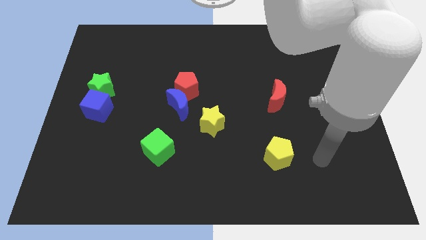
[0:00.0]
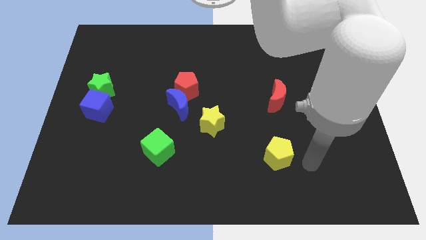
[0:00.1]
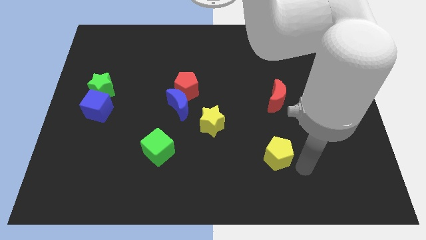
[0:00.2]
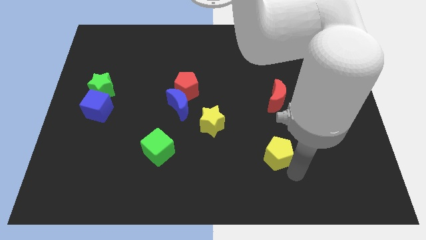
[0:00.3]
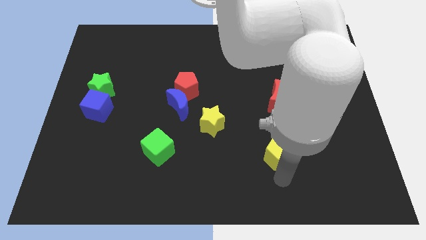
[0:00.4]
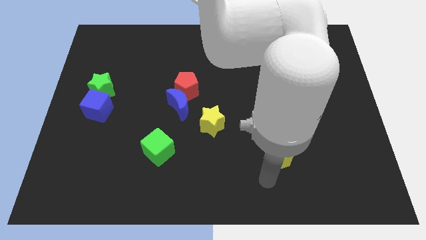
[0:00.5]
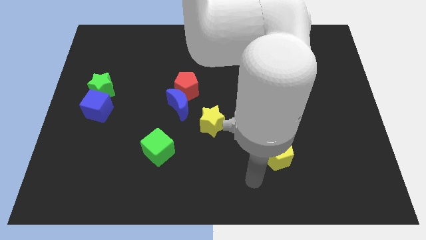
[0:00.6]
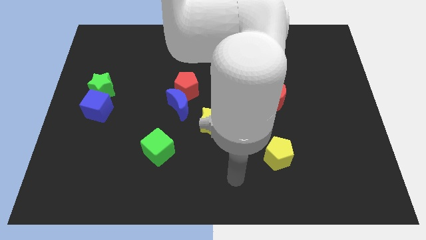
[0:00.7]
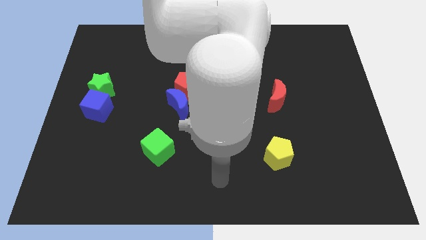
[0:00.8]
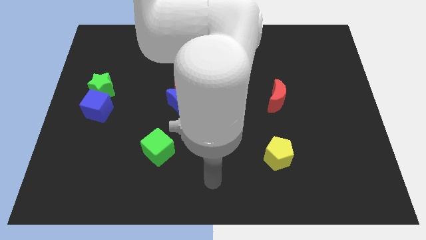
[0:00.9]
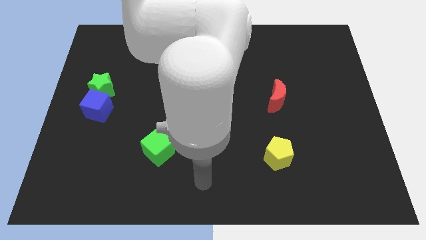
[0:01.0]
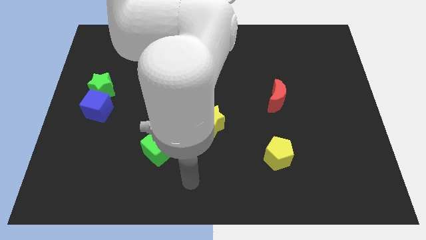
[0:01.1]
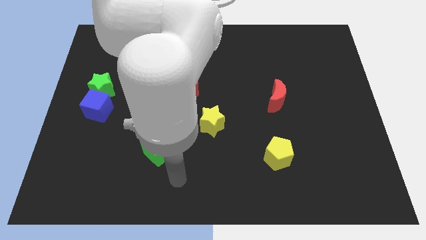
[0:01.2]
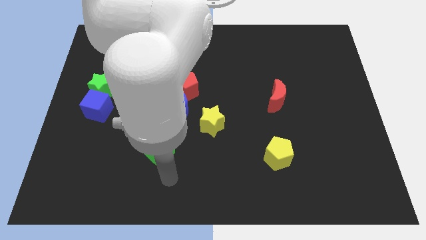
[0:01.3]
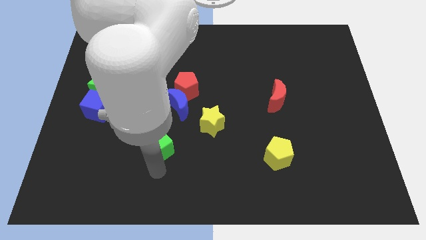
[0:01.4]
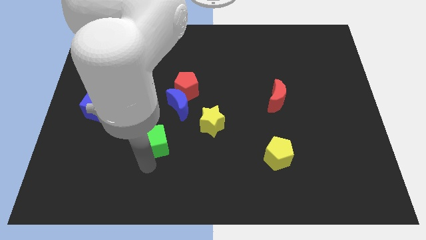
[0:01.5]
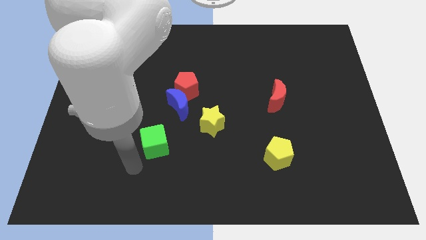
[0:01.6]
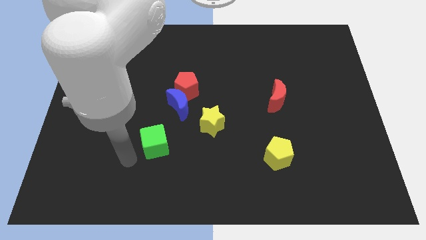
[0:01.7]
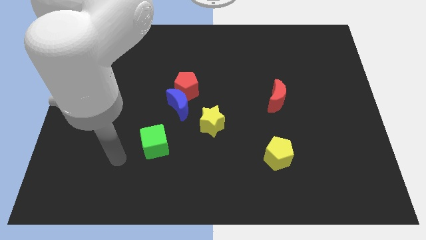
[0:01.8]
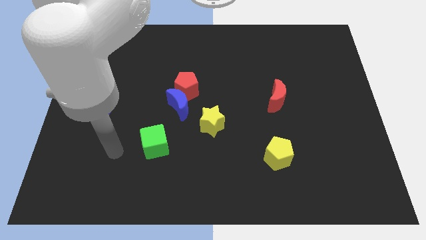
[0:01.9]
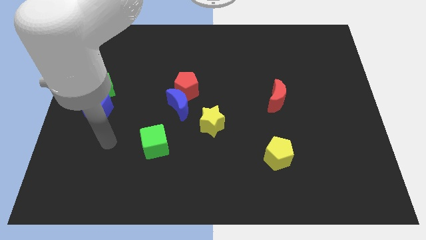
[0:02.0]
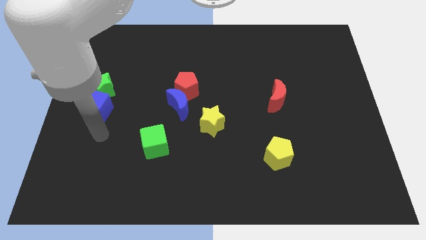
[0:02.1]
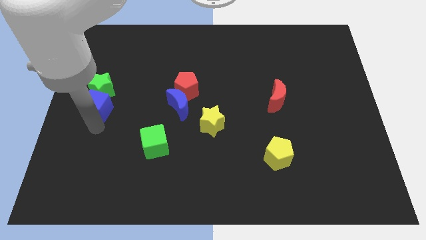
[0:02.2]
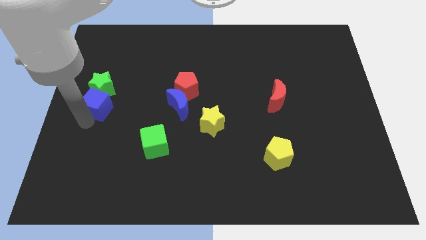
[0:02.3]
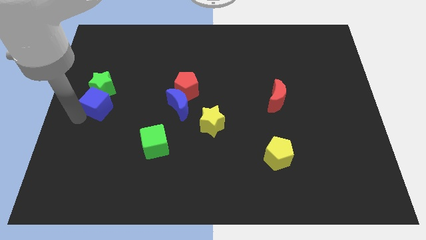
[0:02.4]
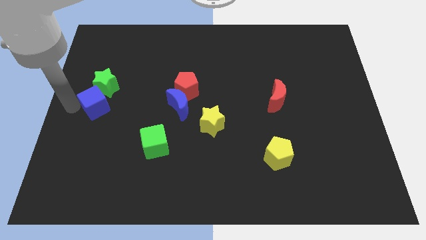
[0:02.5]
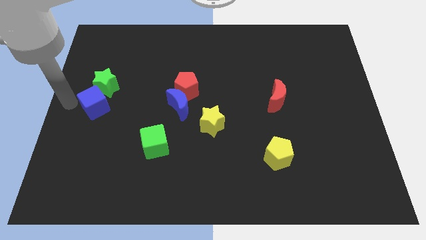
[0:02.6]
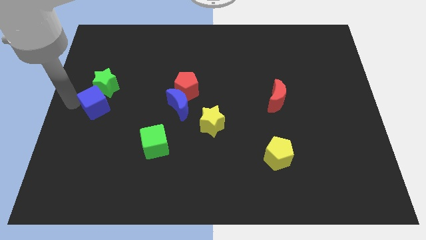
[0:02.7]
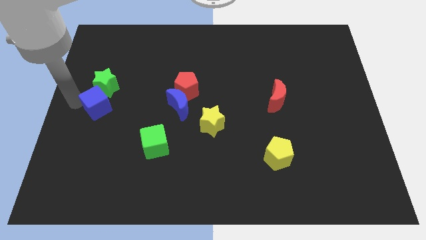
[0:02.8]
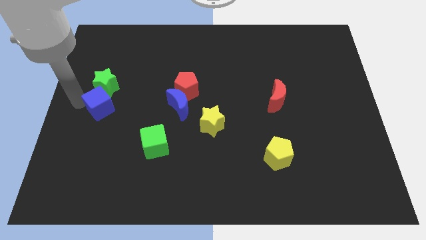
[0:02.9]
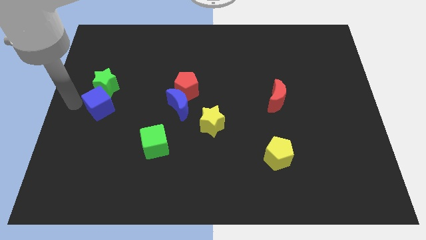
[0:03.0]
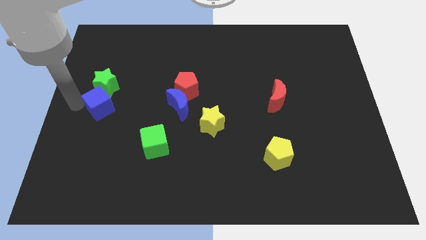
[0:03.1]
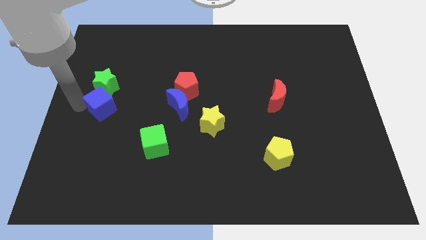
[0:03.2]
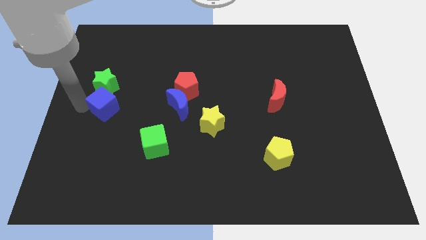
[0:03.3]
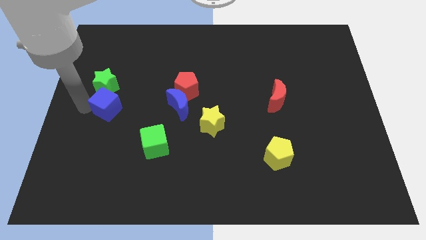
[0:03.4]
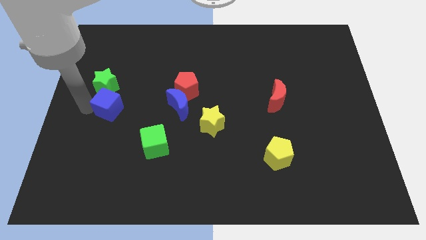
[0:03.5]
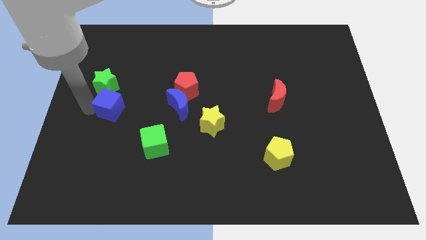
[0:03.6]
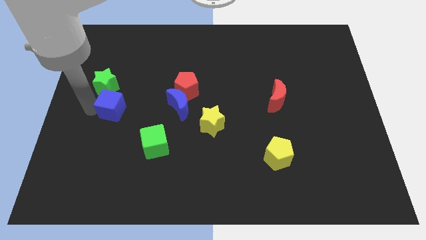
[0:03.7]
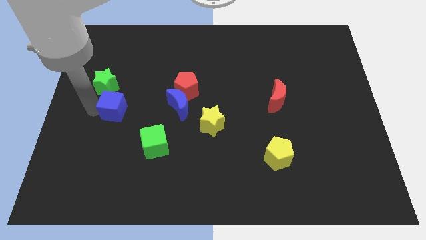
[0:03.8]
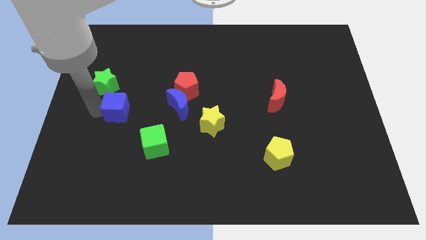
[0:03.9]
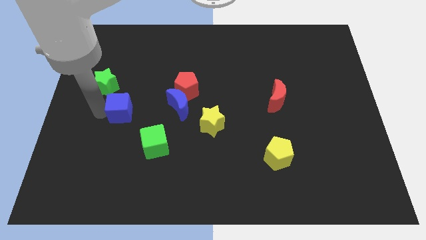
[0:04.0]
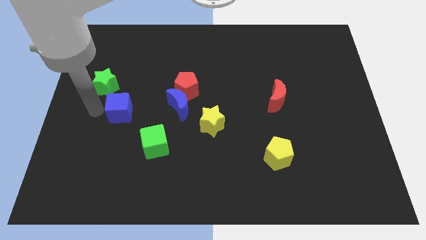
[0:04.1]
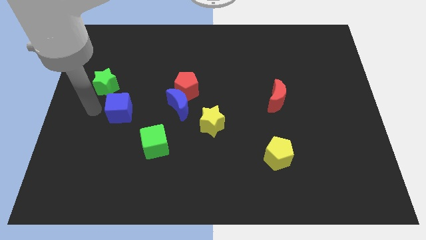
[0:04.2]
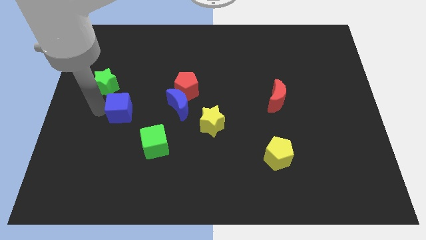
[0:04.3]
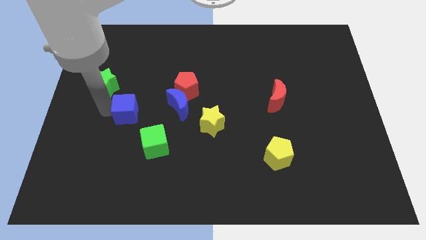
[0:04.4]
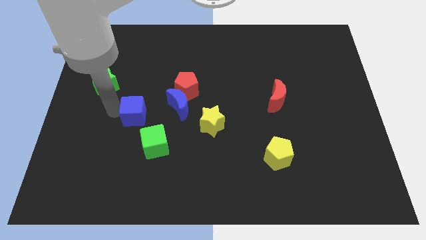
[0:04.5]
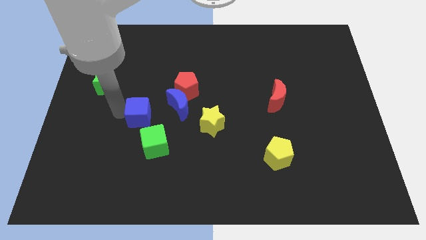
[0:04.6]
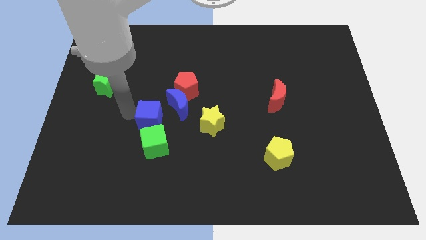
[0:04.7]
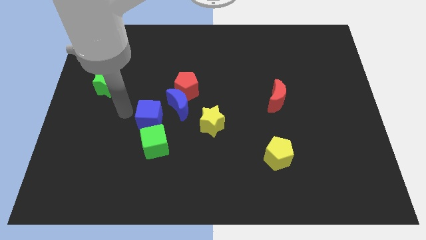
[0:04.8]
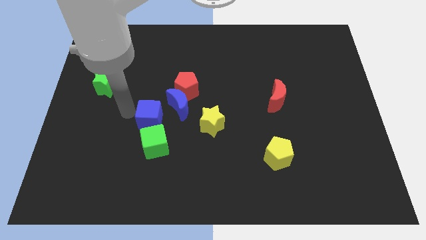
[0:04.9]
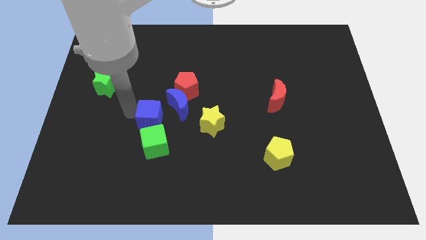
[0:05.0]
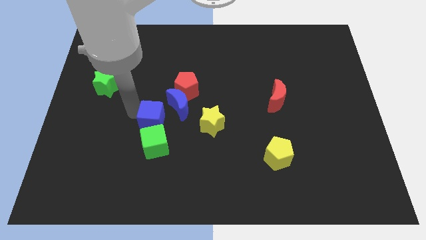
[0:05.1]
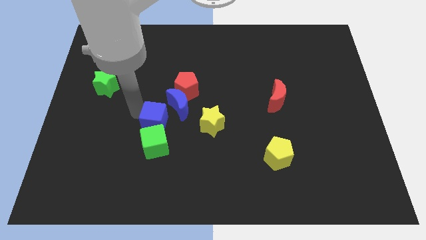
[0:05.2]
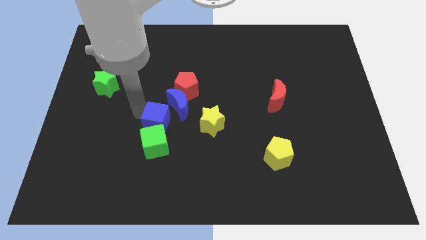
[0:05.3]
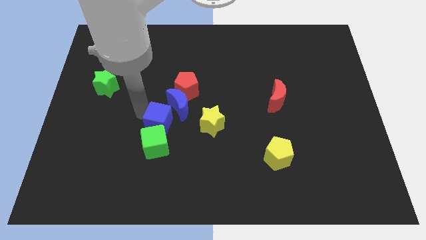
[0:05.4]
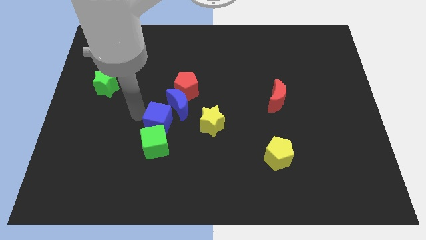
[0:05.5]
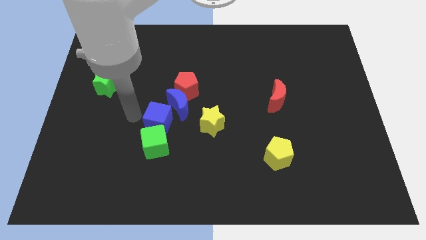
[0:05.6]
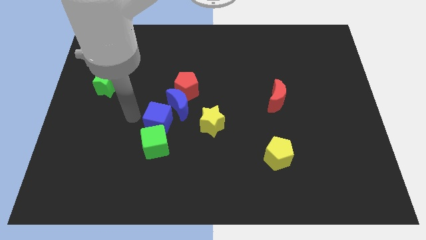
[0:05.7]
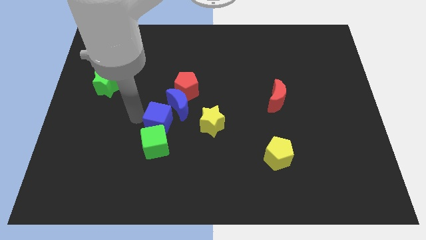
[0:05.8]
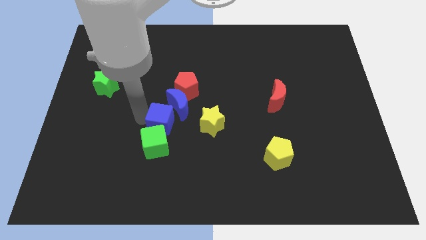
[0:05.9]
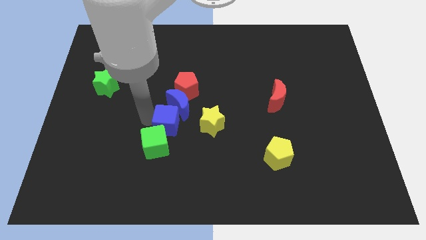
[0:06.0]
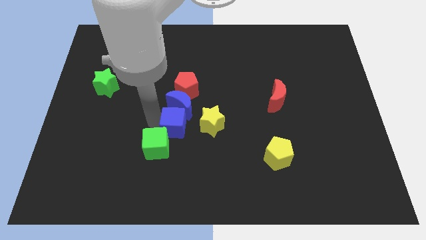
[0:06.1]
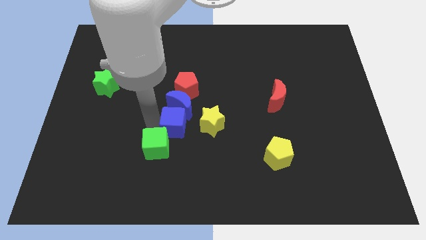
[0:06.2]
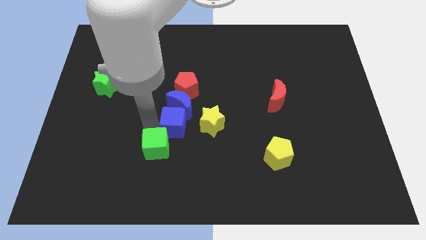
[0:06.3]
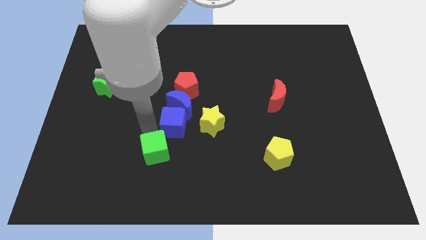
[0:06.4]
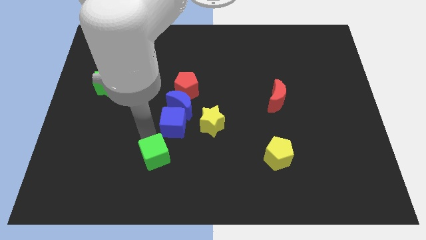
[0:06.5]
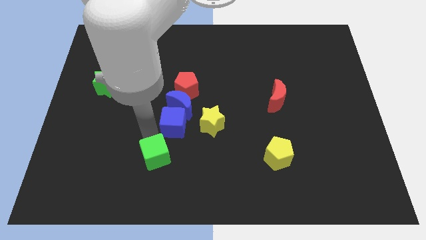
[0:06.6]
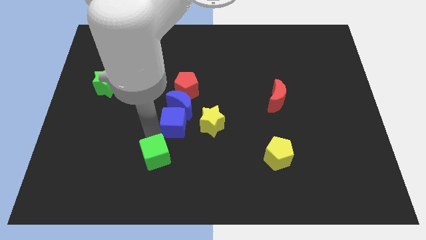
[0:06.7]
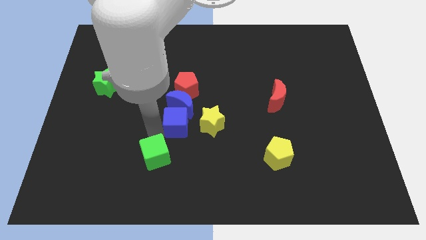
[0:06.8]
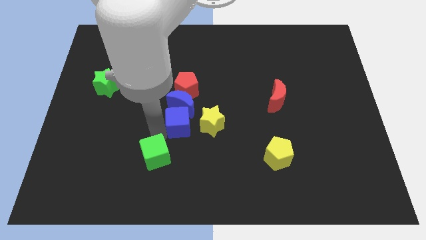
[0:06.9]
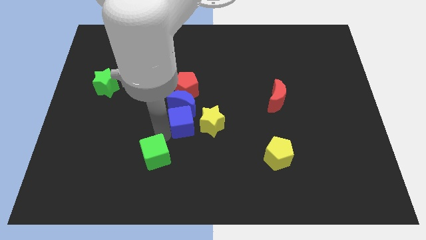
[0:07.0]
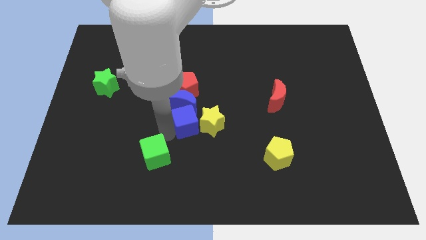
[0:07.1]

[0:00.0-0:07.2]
slide the blue cube to the right

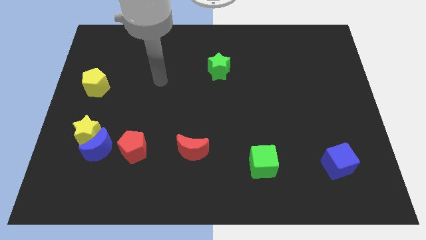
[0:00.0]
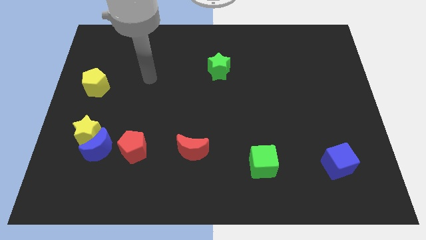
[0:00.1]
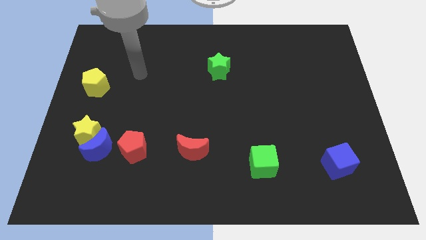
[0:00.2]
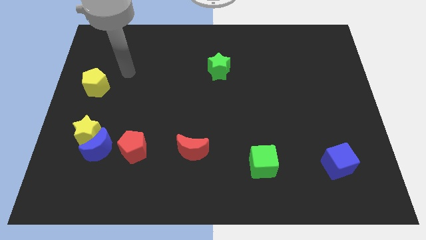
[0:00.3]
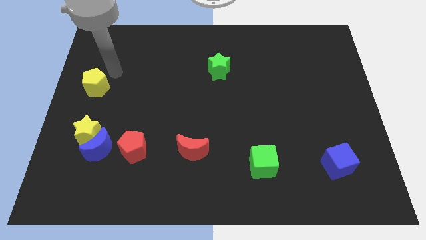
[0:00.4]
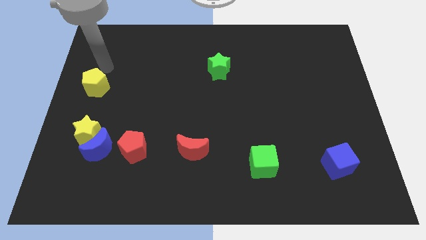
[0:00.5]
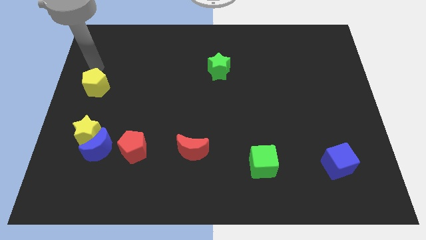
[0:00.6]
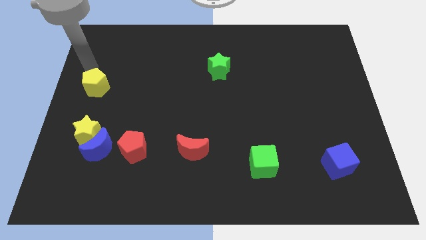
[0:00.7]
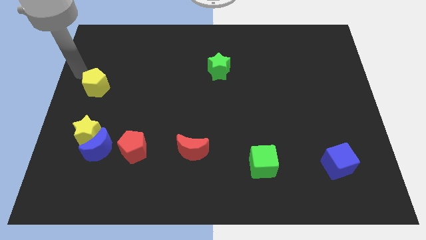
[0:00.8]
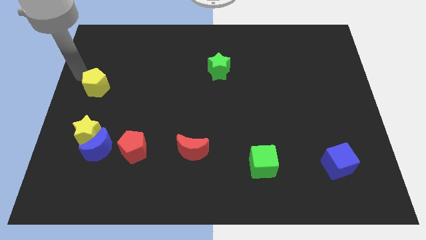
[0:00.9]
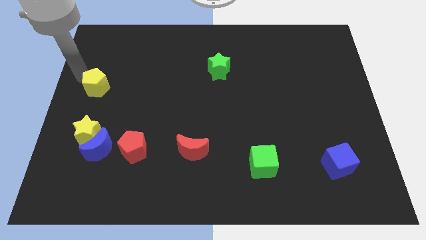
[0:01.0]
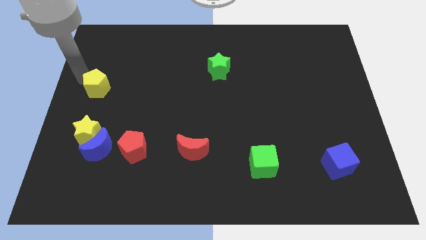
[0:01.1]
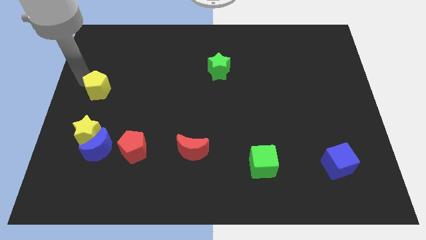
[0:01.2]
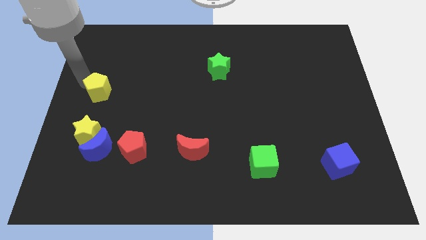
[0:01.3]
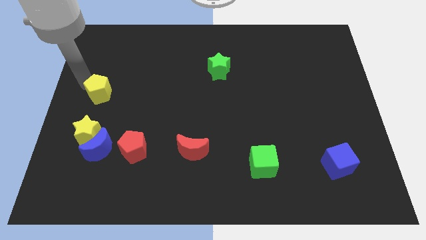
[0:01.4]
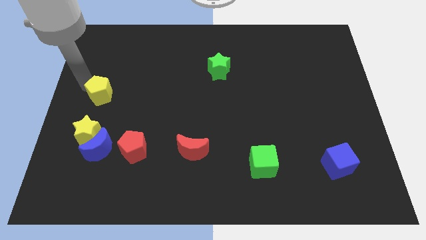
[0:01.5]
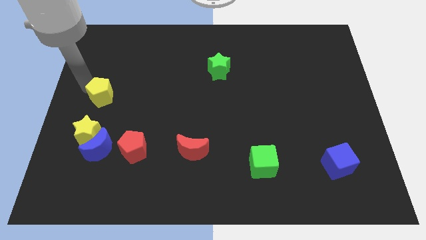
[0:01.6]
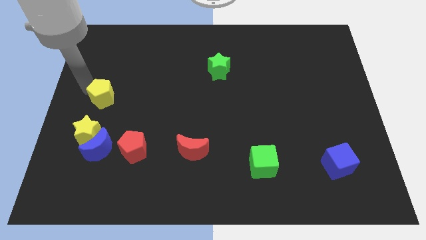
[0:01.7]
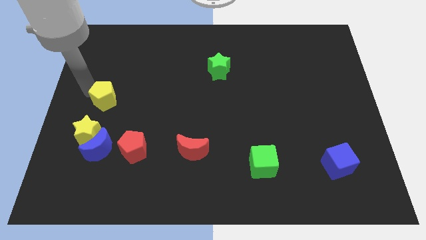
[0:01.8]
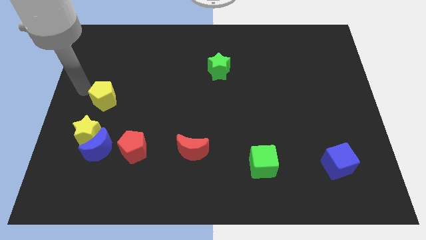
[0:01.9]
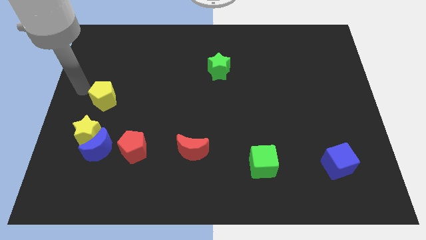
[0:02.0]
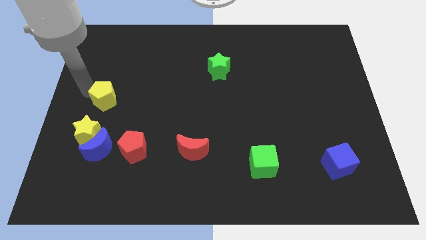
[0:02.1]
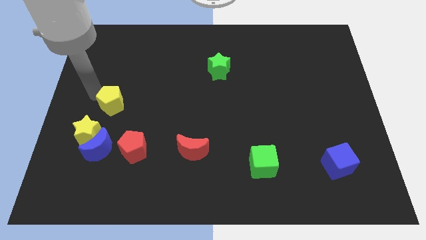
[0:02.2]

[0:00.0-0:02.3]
slightly push the yellow pentagon diagonally downwards and to the right
